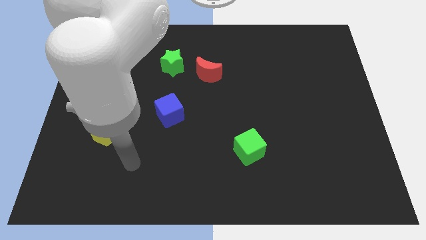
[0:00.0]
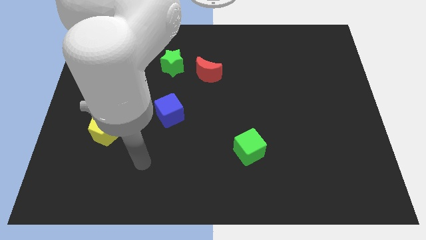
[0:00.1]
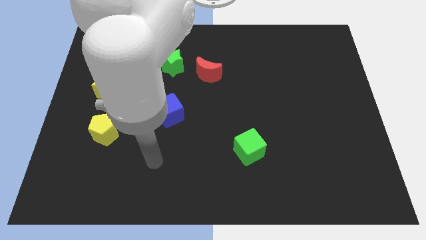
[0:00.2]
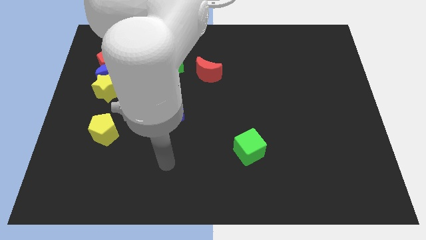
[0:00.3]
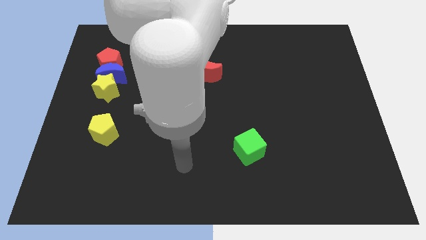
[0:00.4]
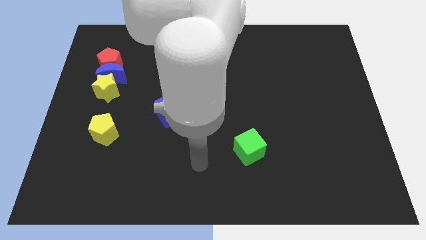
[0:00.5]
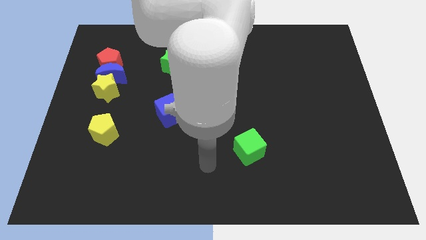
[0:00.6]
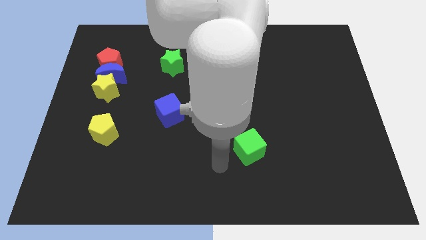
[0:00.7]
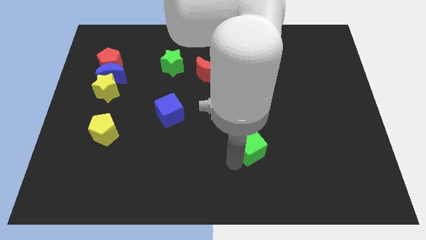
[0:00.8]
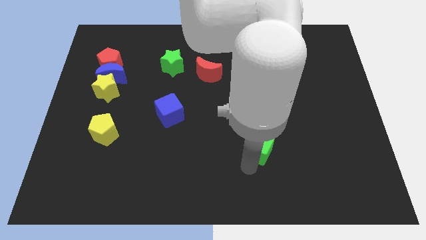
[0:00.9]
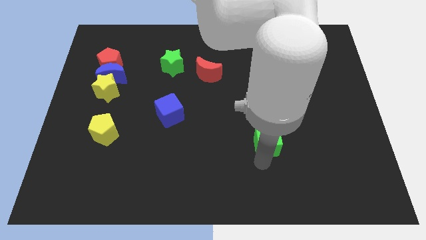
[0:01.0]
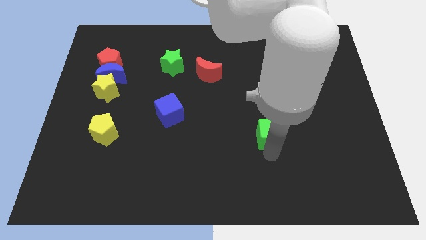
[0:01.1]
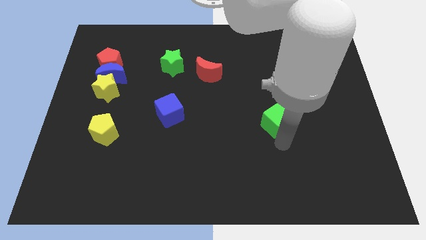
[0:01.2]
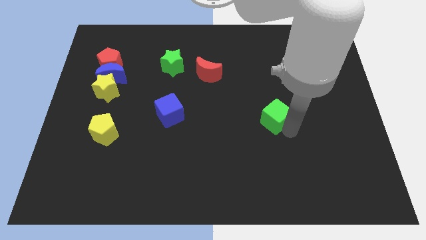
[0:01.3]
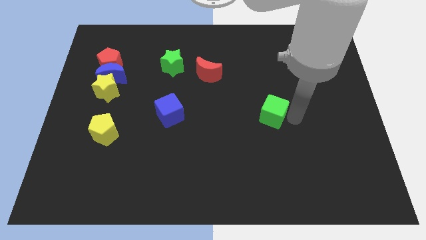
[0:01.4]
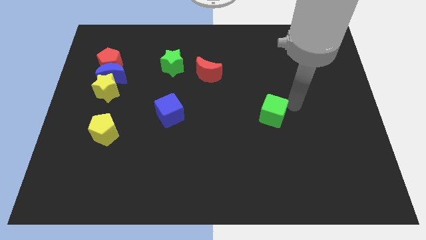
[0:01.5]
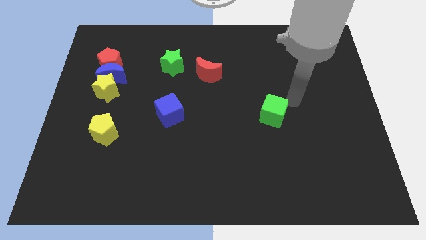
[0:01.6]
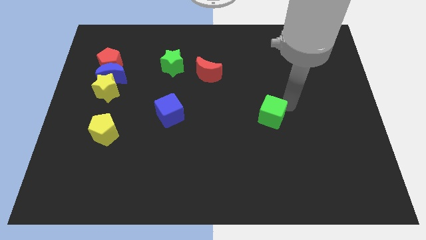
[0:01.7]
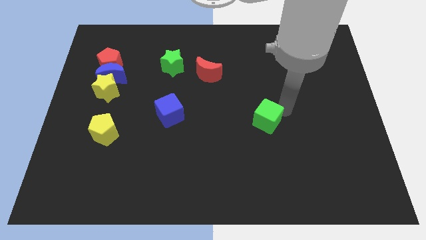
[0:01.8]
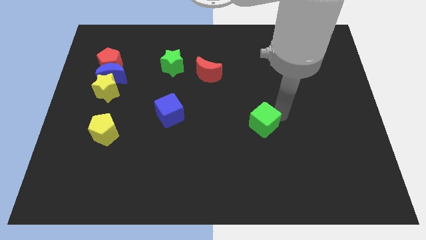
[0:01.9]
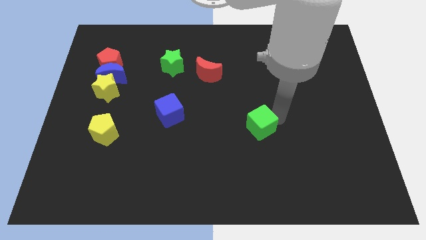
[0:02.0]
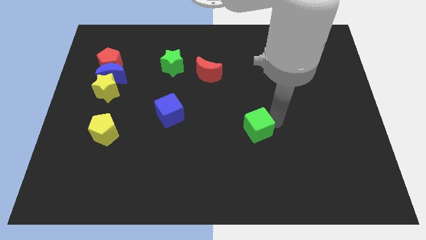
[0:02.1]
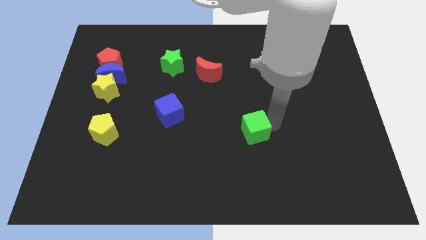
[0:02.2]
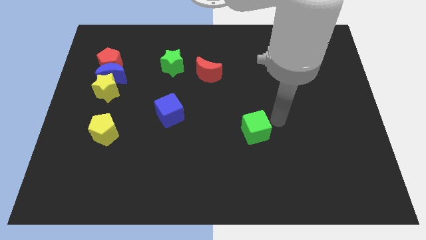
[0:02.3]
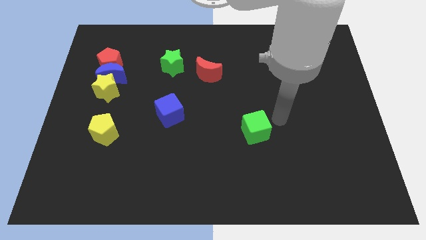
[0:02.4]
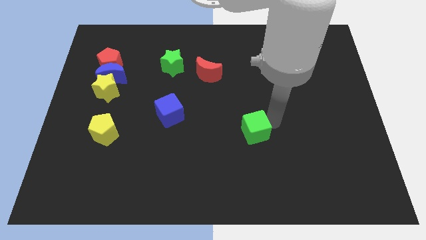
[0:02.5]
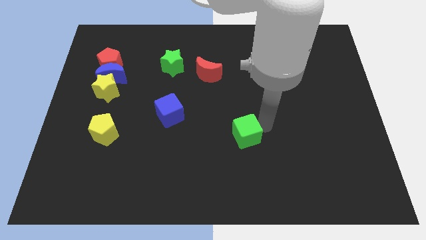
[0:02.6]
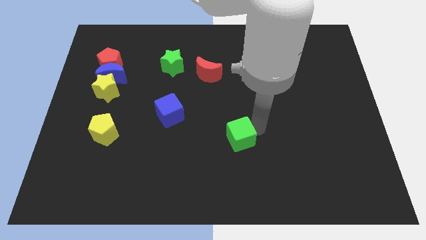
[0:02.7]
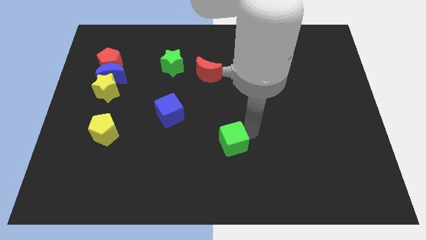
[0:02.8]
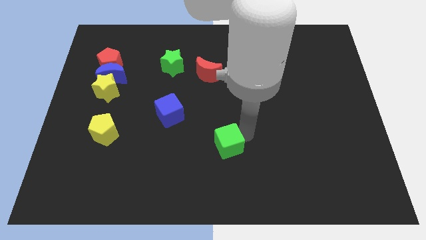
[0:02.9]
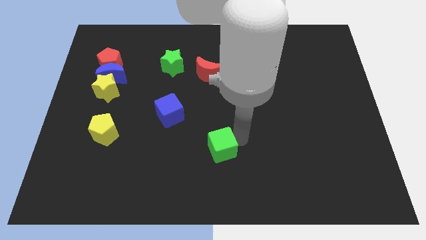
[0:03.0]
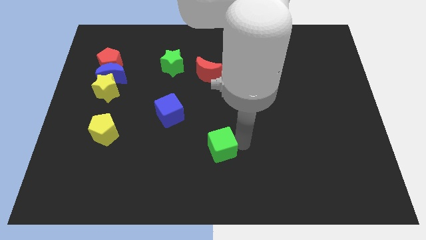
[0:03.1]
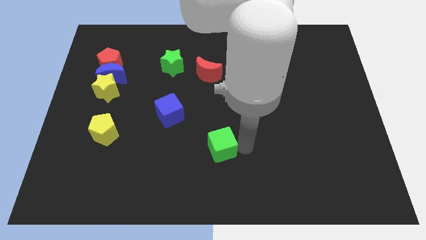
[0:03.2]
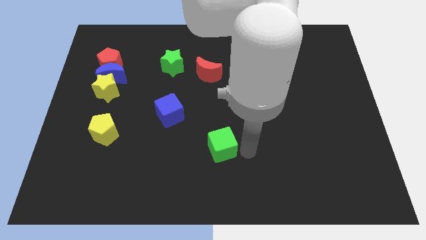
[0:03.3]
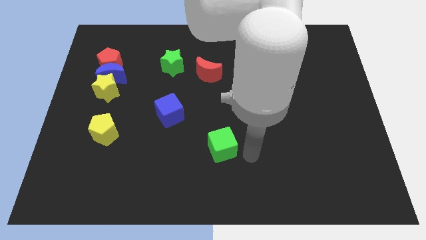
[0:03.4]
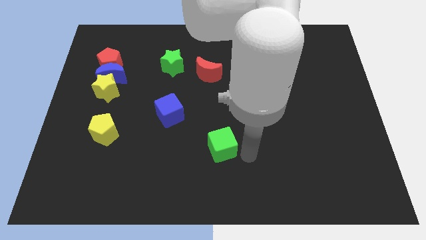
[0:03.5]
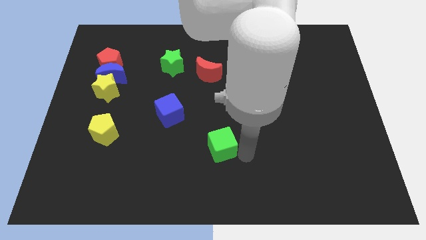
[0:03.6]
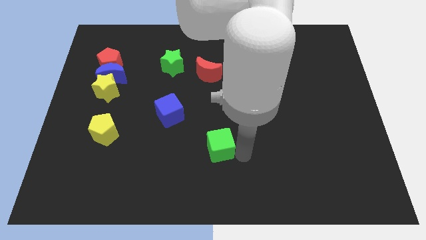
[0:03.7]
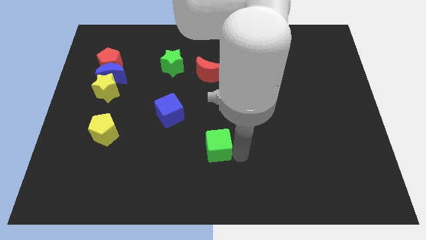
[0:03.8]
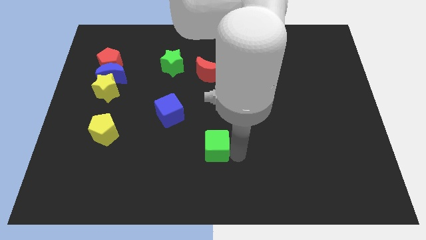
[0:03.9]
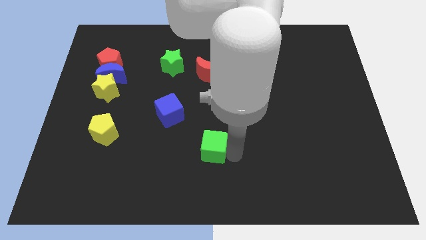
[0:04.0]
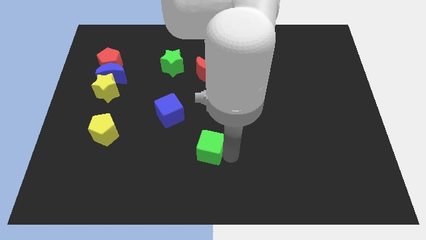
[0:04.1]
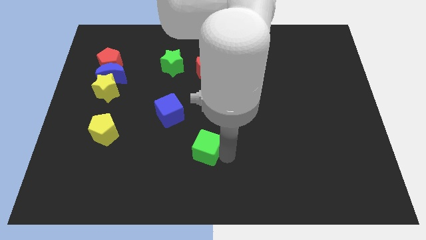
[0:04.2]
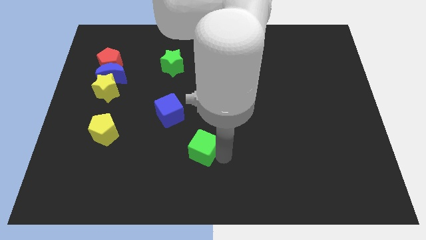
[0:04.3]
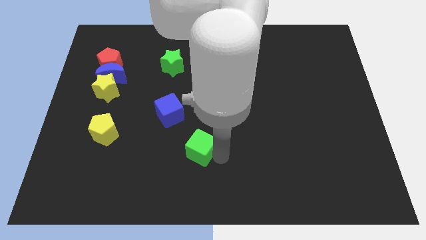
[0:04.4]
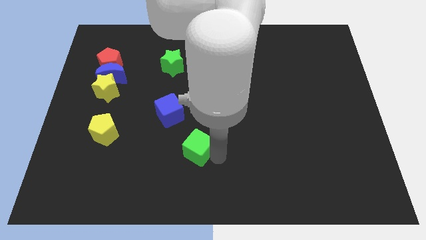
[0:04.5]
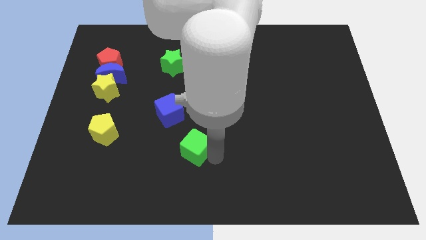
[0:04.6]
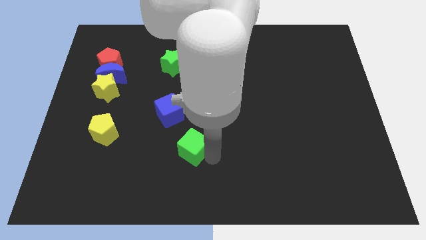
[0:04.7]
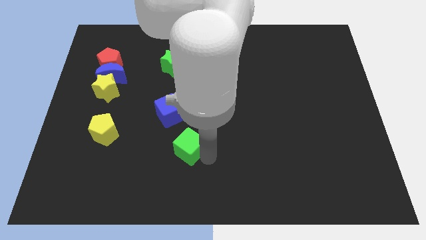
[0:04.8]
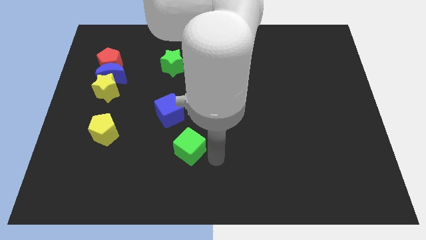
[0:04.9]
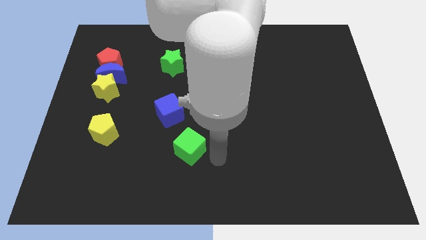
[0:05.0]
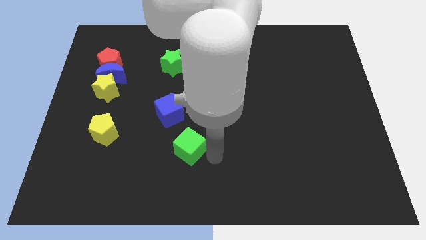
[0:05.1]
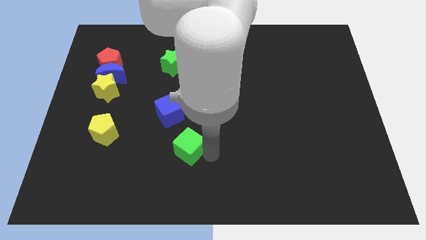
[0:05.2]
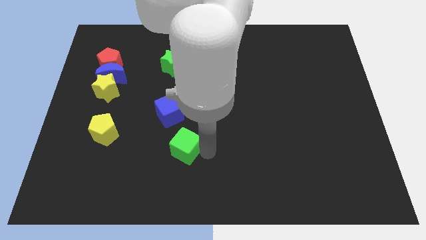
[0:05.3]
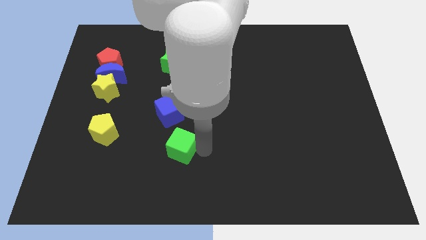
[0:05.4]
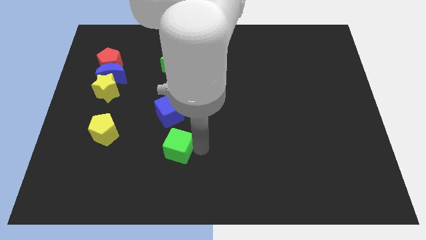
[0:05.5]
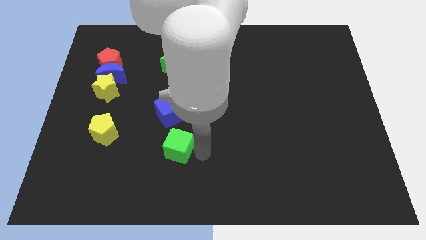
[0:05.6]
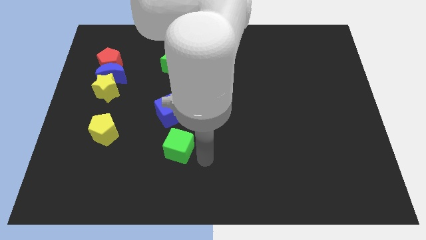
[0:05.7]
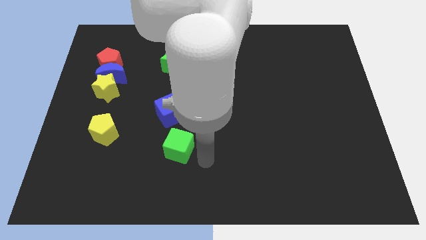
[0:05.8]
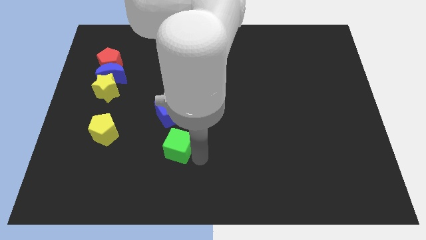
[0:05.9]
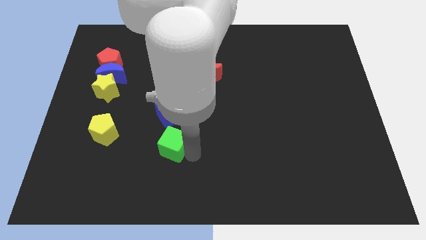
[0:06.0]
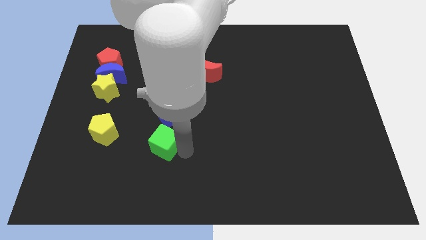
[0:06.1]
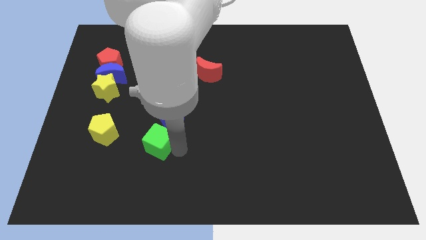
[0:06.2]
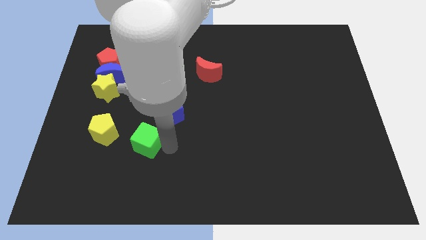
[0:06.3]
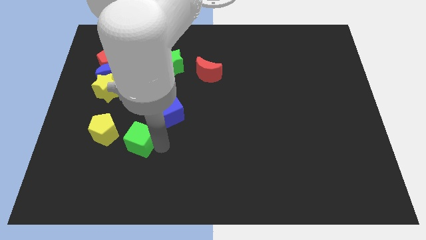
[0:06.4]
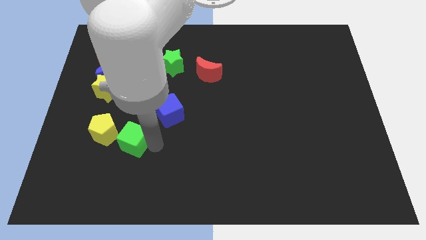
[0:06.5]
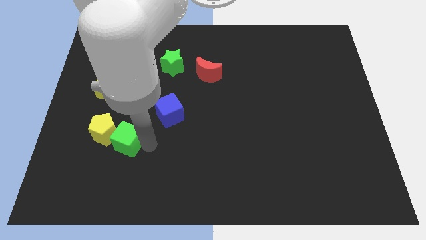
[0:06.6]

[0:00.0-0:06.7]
push the green cube to the yellow pentagon
